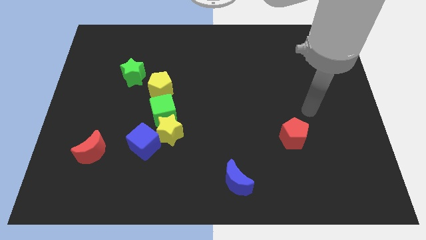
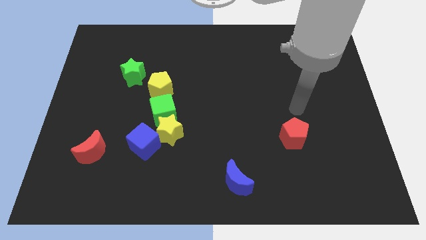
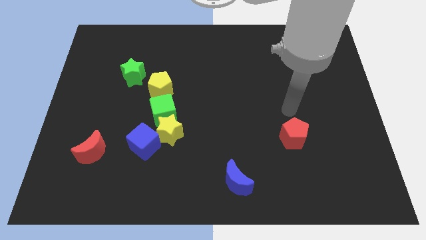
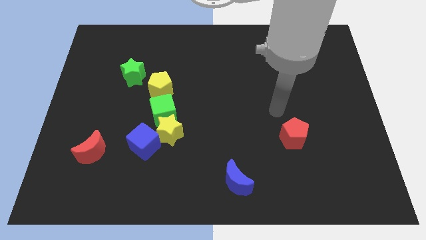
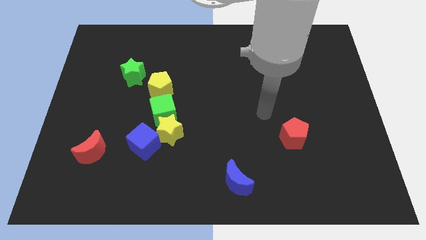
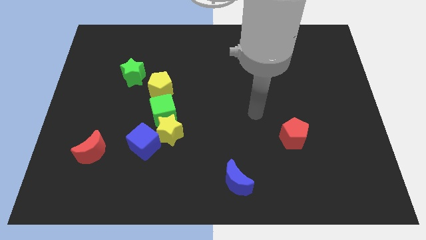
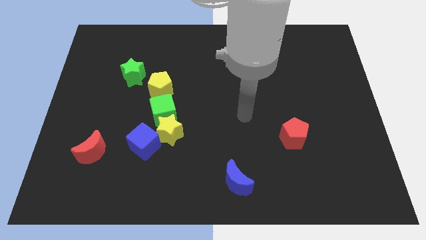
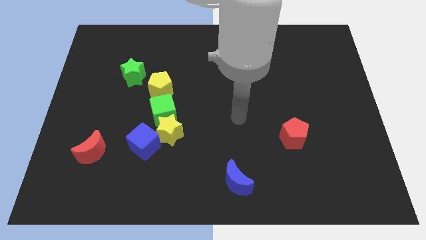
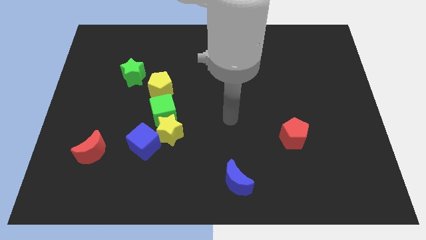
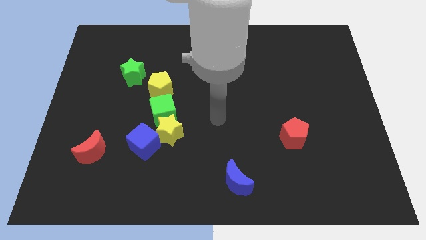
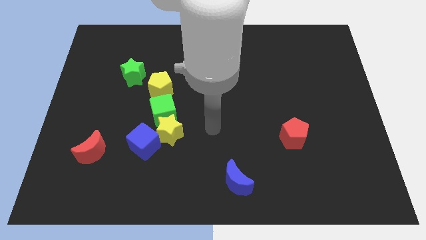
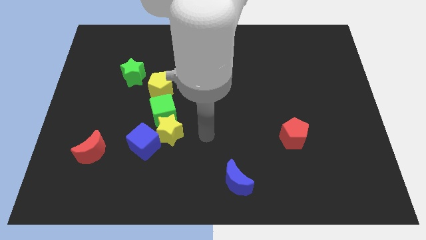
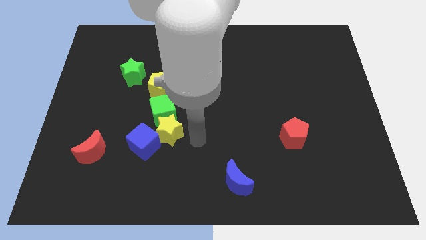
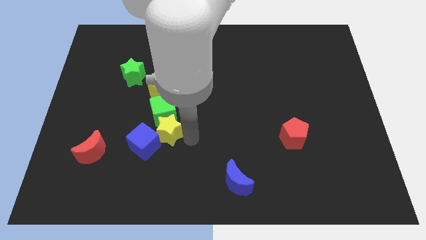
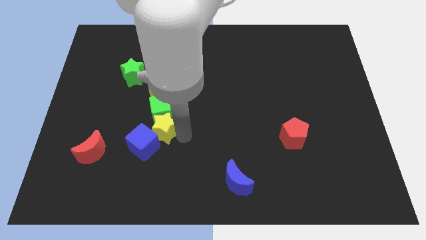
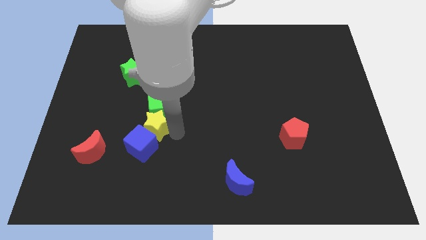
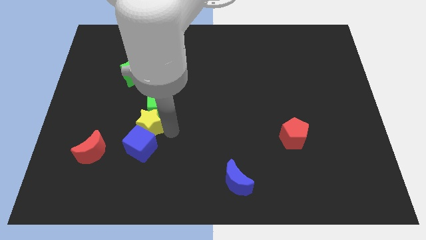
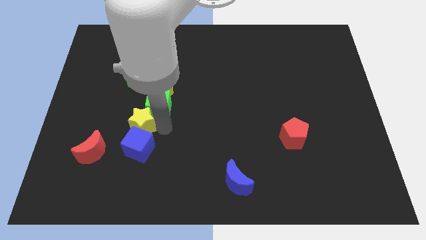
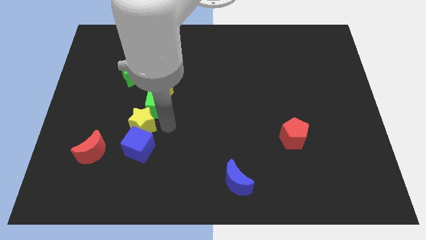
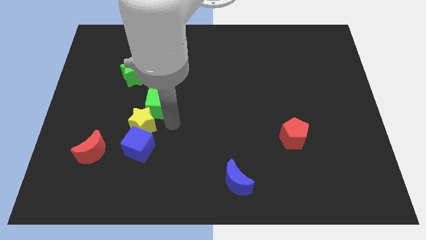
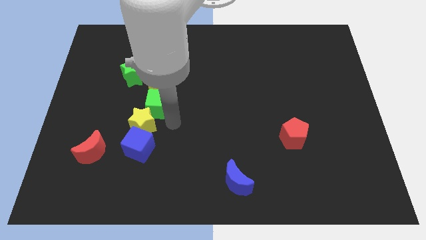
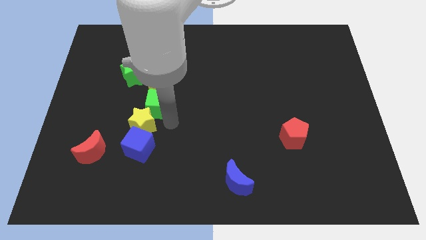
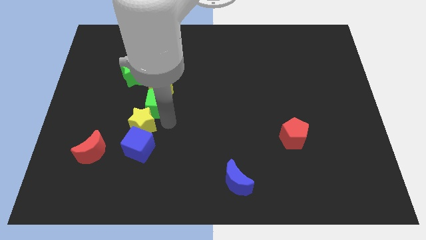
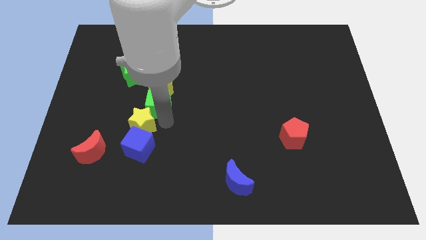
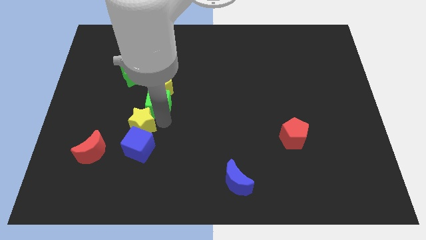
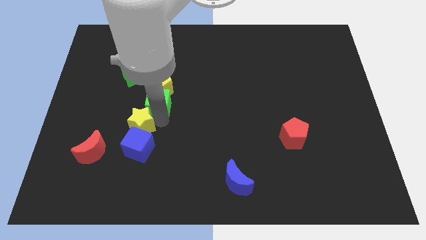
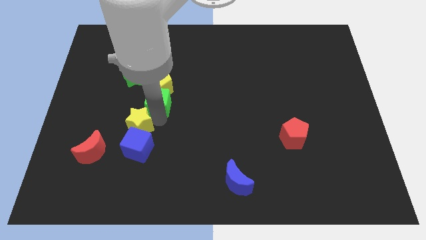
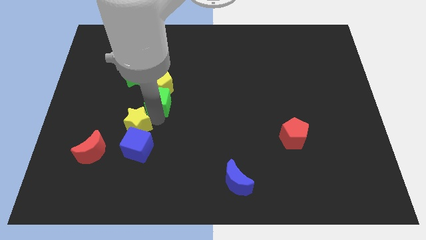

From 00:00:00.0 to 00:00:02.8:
slightly slide the yellow star left

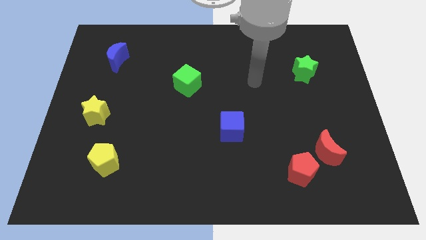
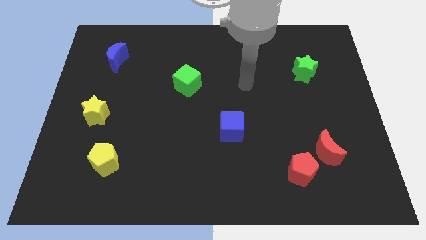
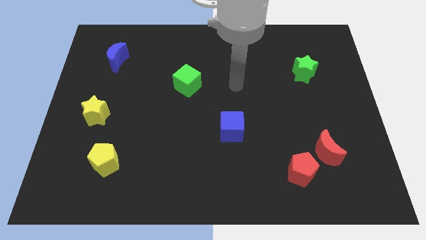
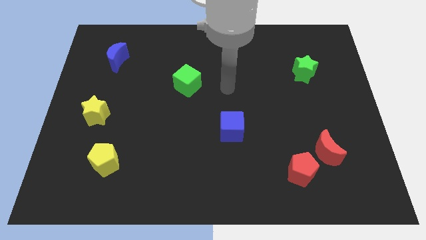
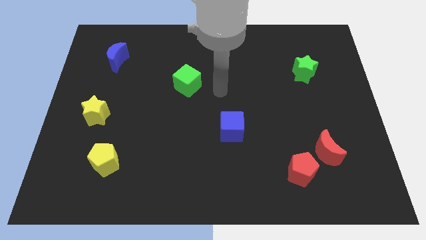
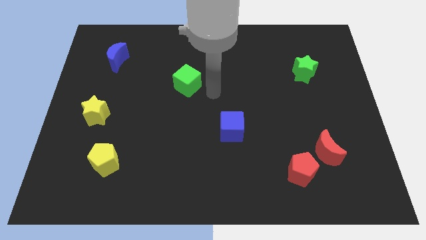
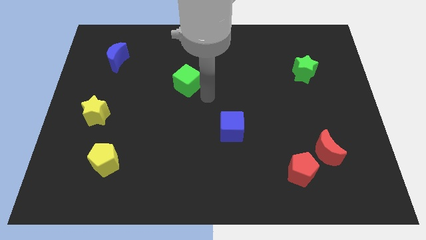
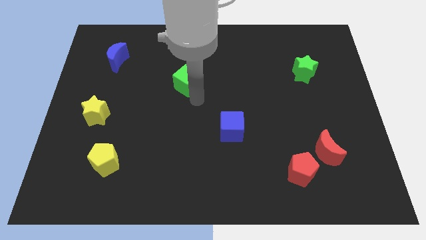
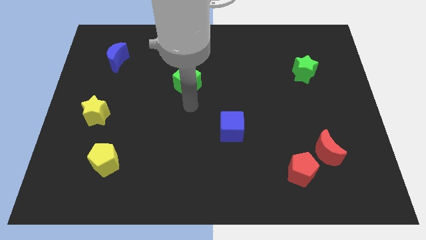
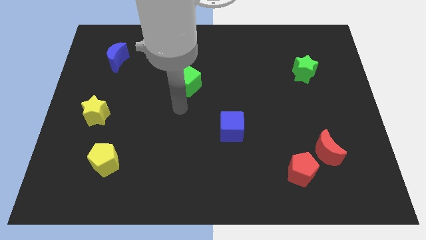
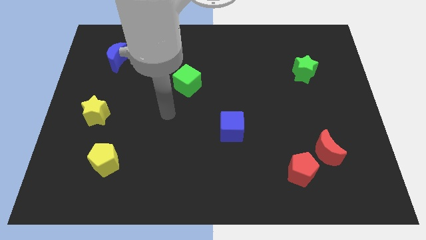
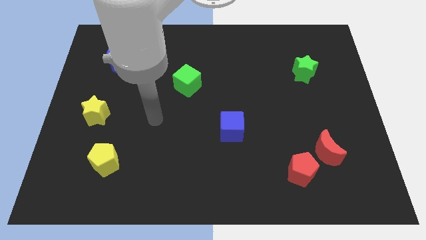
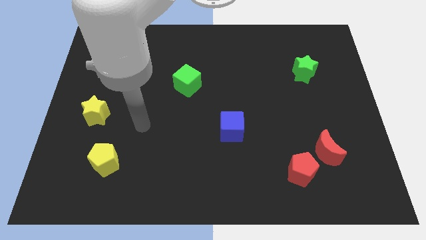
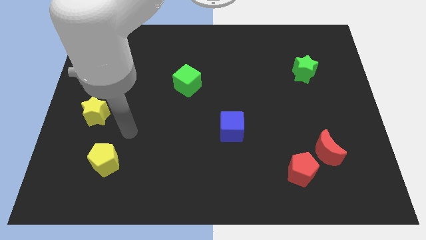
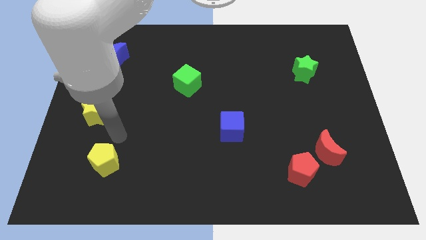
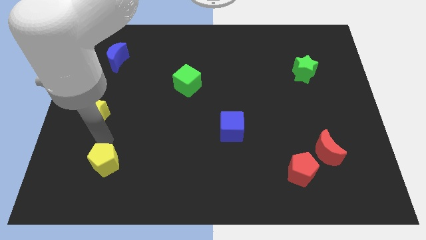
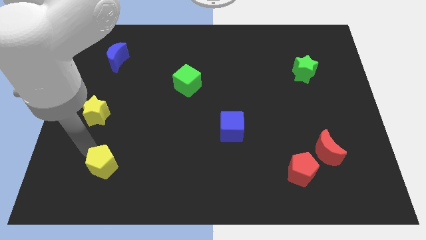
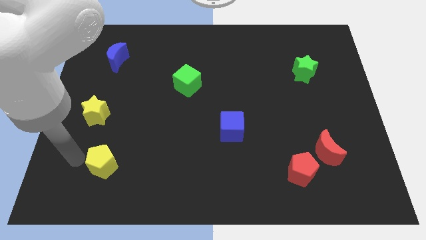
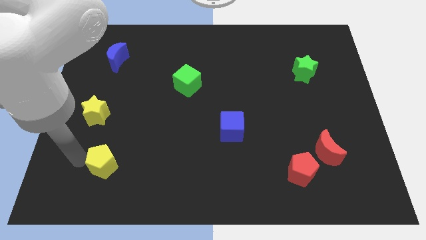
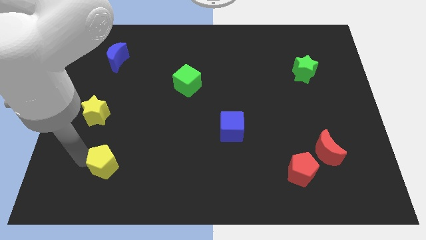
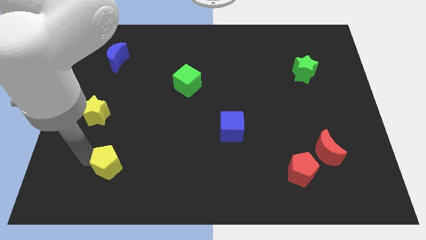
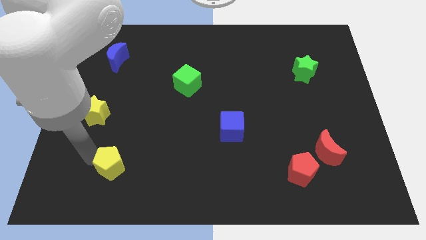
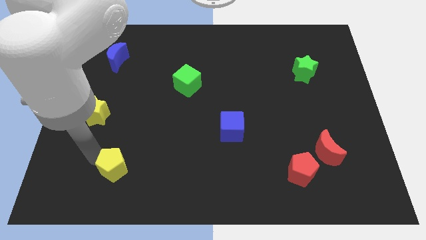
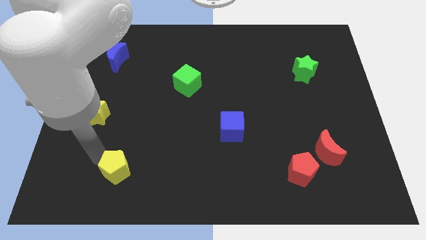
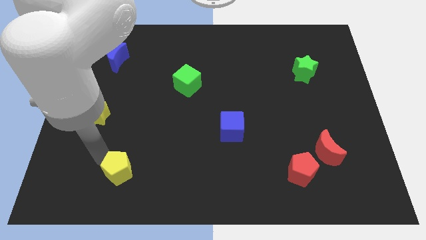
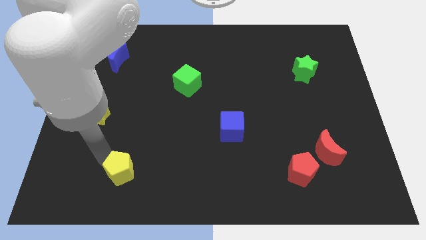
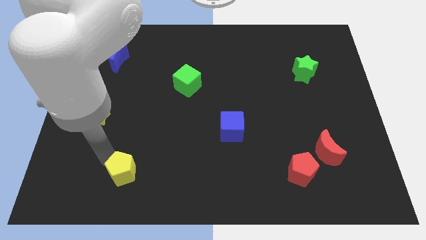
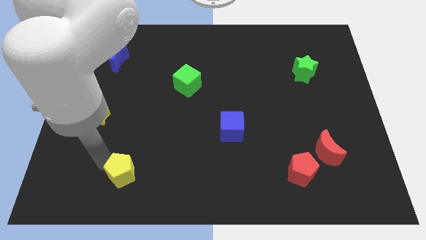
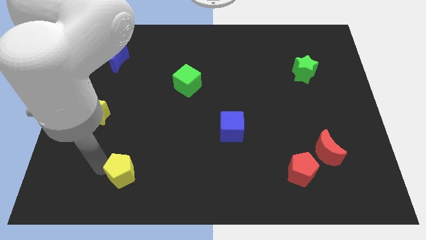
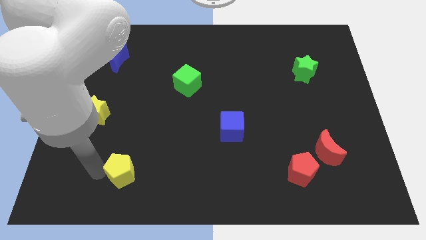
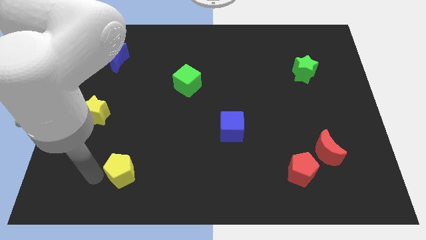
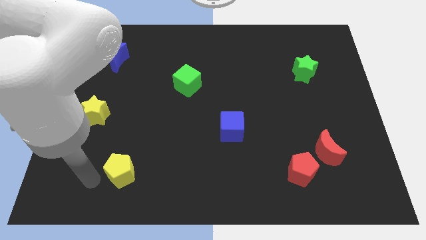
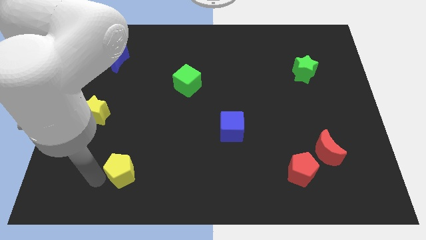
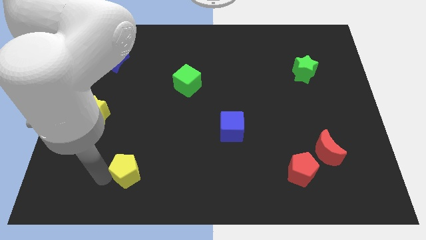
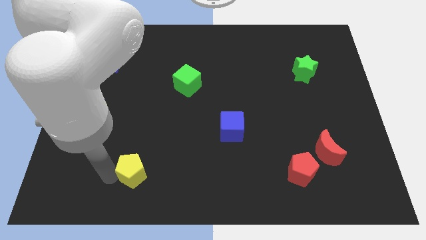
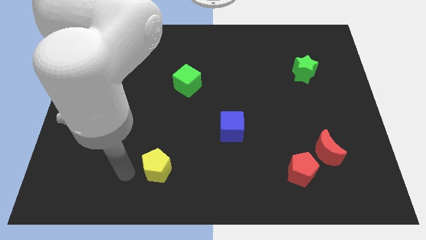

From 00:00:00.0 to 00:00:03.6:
slightly push the yellow pentagon right

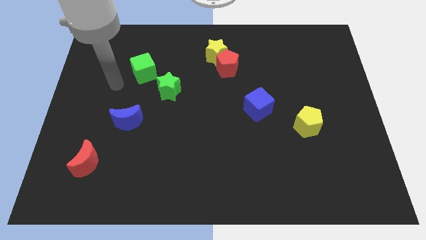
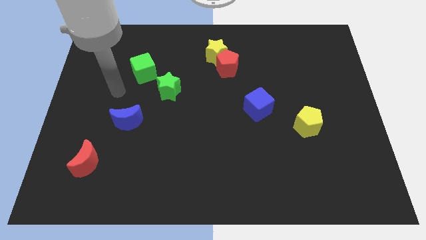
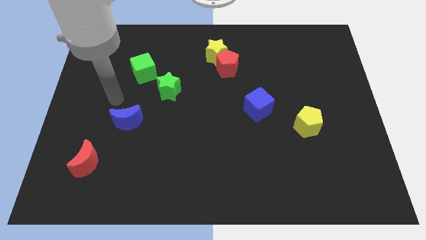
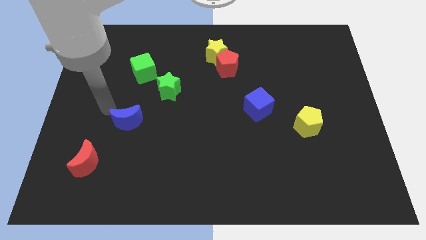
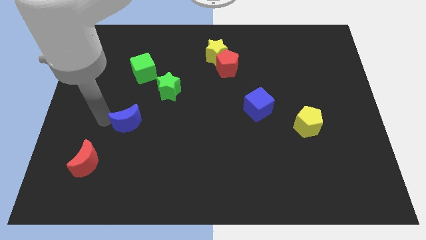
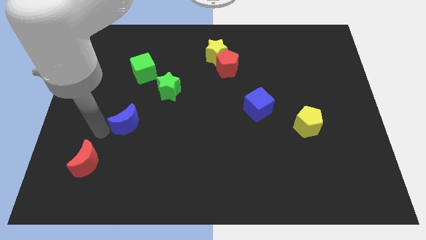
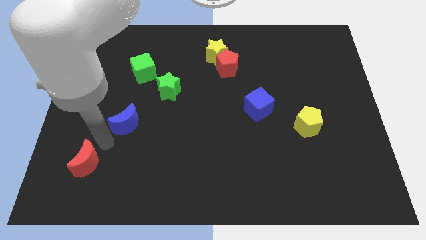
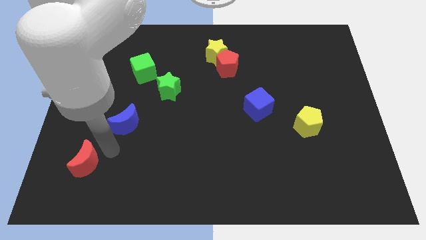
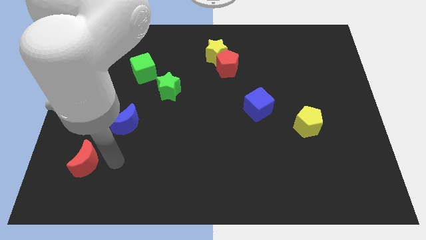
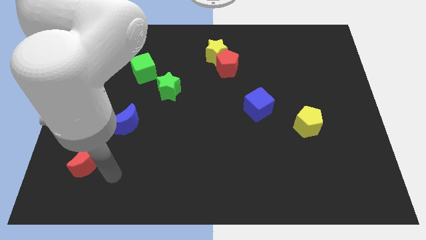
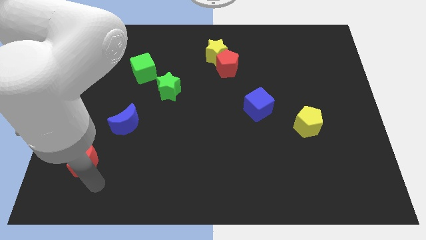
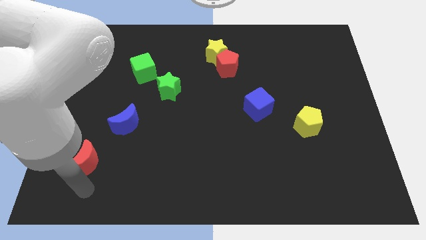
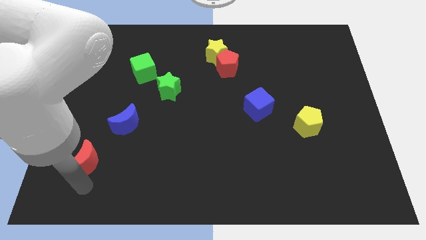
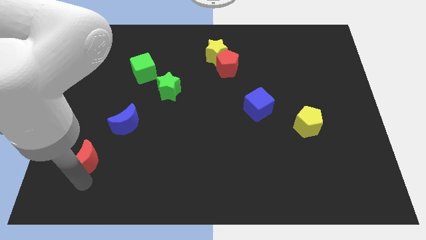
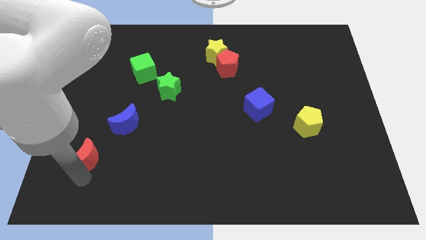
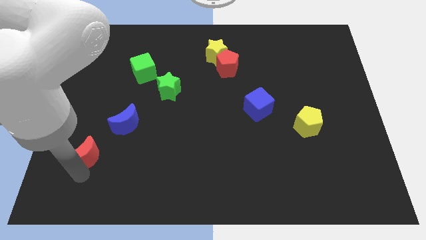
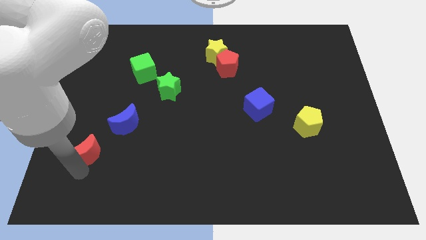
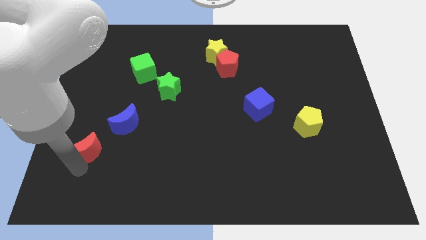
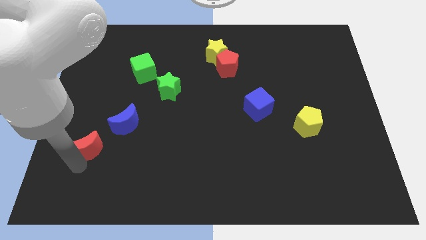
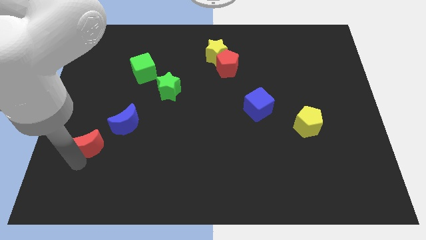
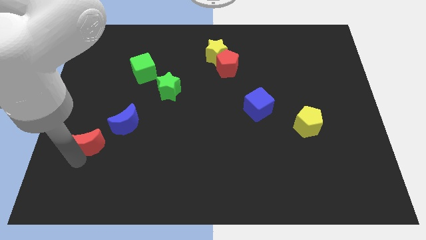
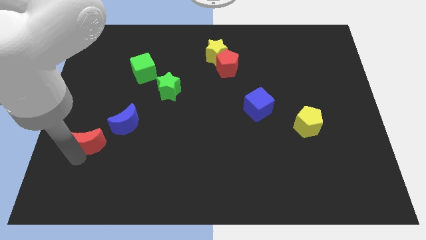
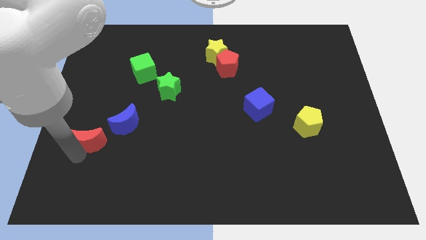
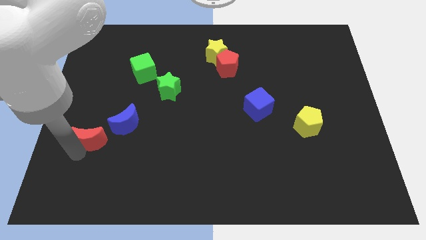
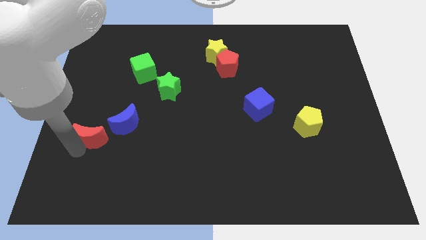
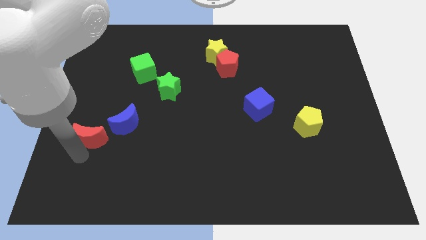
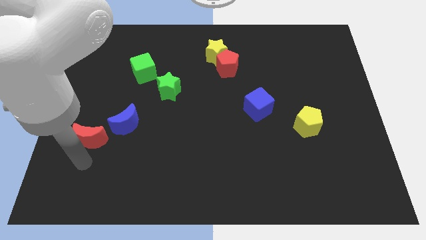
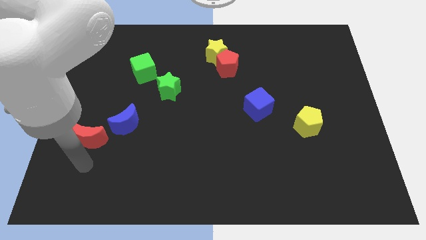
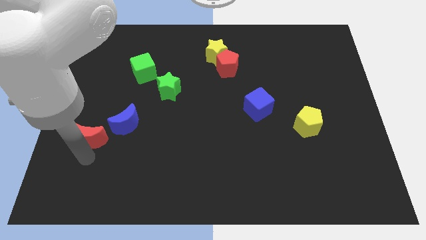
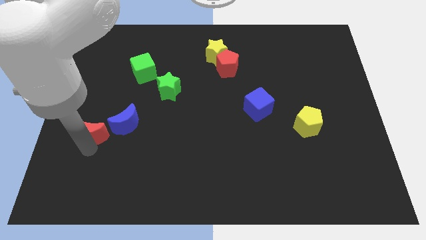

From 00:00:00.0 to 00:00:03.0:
slide the red moon up a little bit
